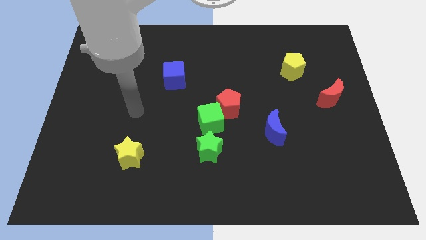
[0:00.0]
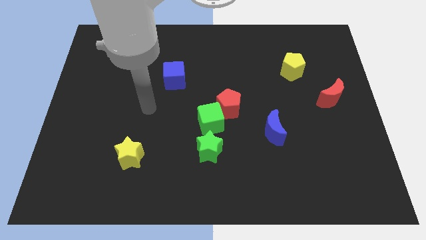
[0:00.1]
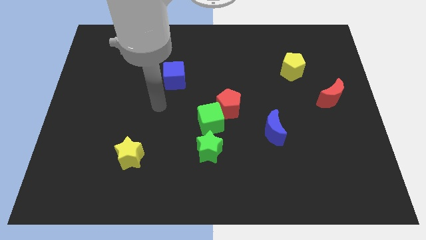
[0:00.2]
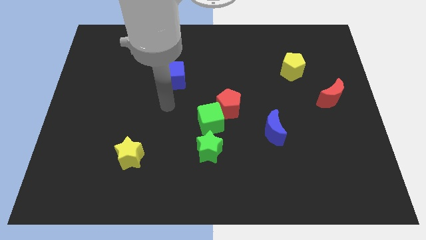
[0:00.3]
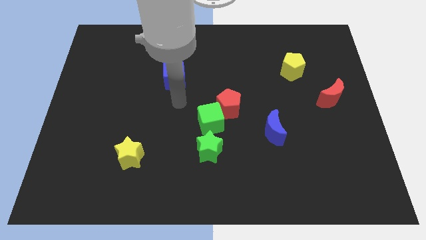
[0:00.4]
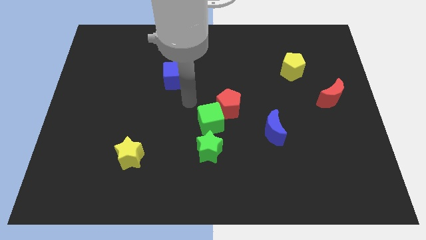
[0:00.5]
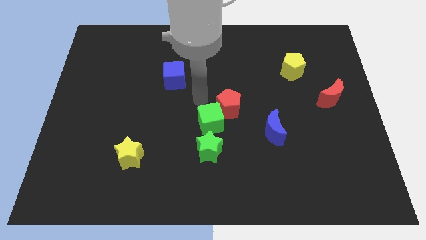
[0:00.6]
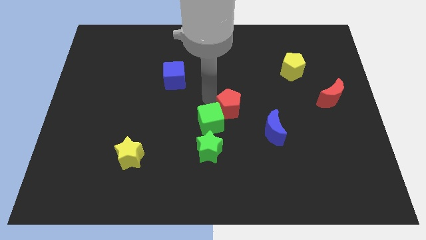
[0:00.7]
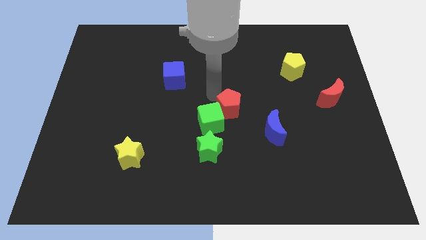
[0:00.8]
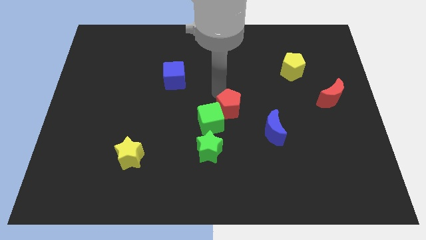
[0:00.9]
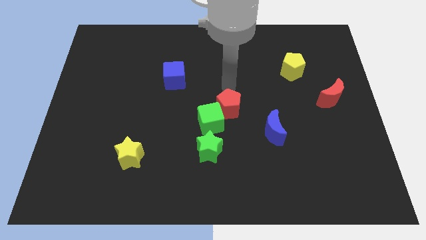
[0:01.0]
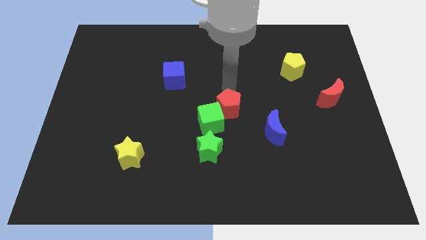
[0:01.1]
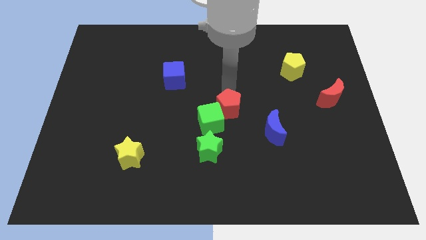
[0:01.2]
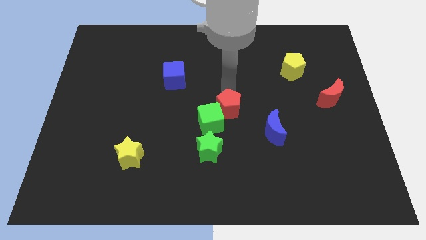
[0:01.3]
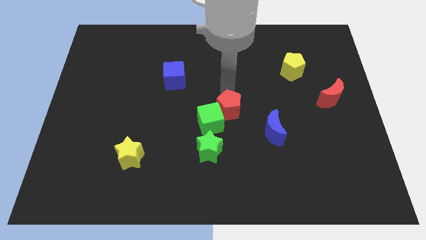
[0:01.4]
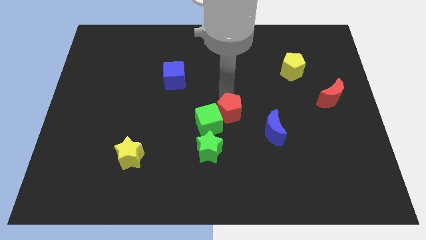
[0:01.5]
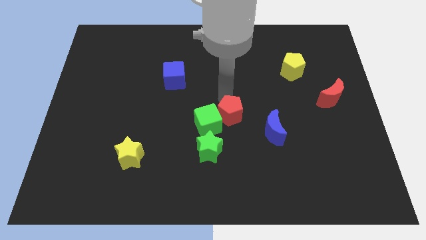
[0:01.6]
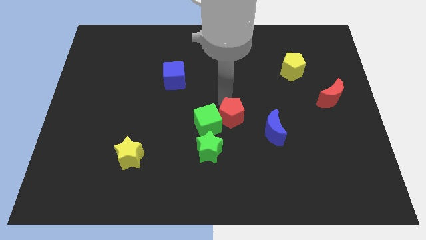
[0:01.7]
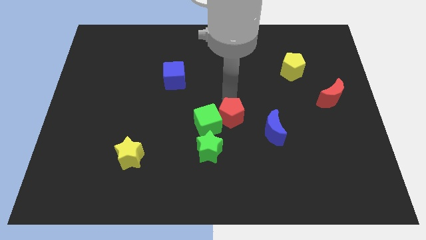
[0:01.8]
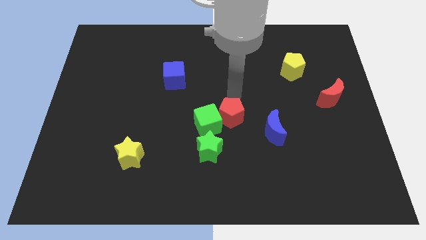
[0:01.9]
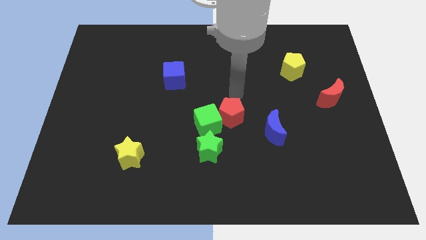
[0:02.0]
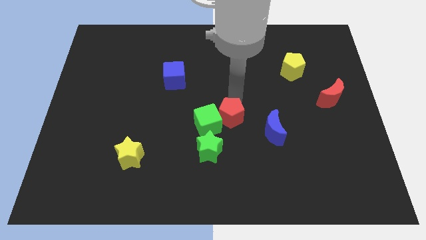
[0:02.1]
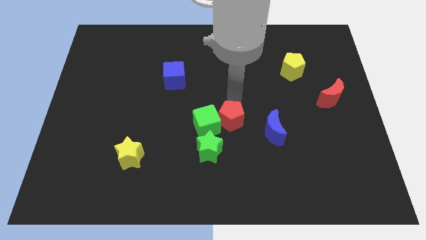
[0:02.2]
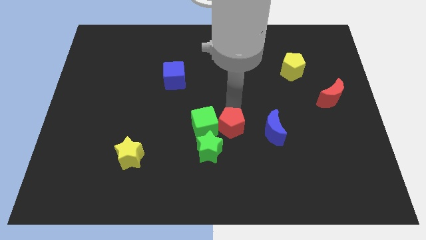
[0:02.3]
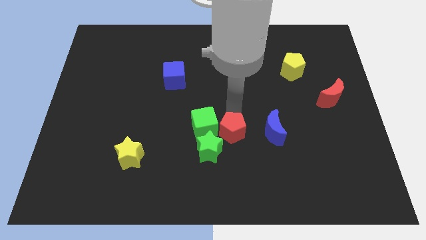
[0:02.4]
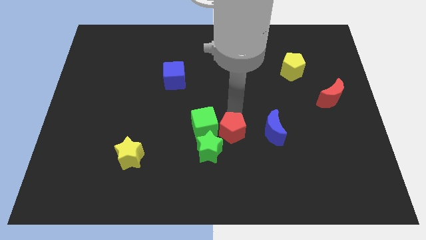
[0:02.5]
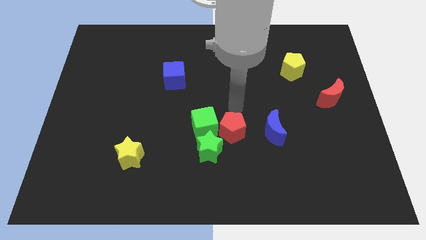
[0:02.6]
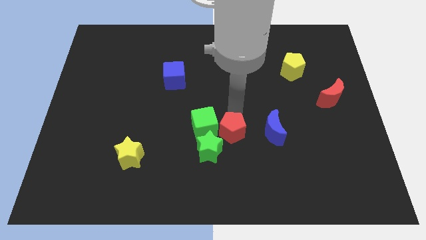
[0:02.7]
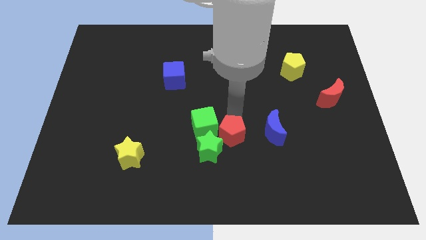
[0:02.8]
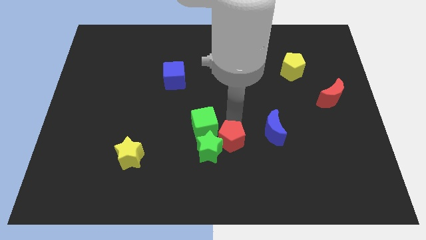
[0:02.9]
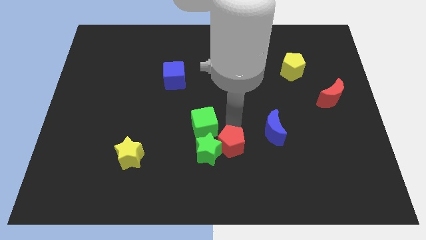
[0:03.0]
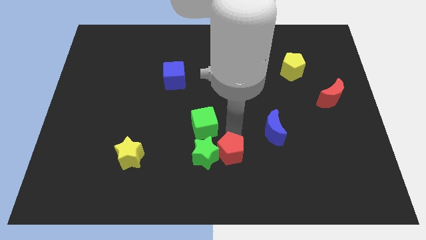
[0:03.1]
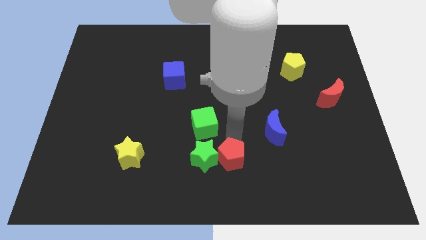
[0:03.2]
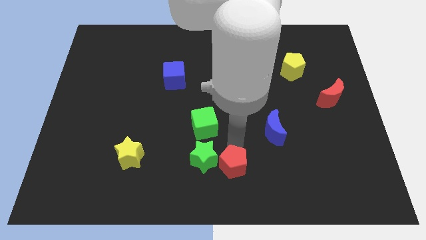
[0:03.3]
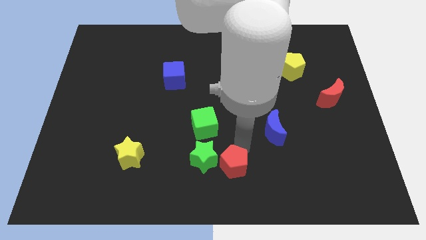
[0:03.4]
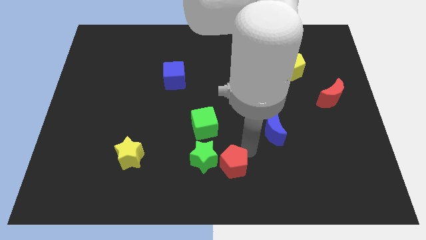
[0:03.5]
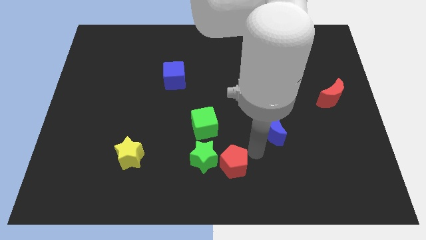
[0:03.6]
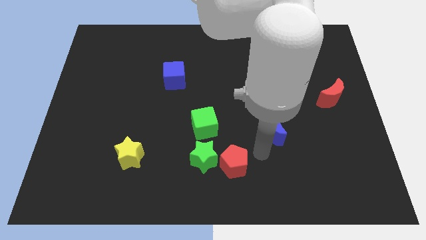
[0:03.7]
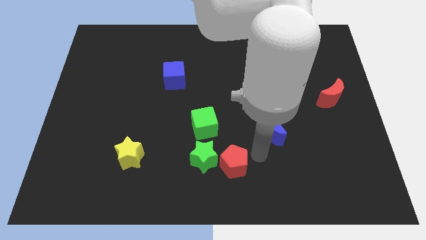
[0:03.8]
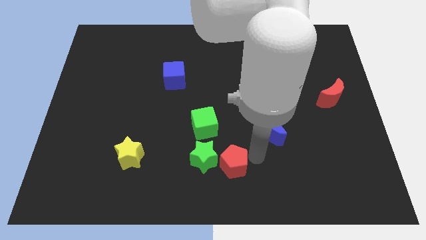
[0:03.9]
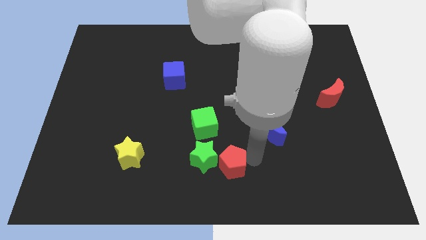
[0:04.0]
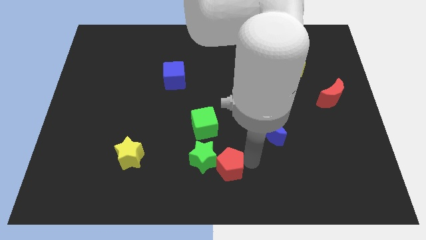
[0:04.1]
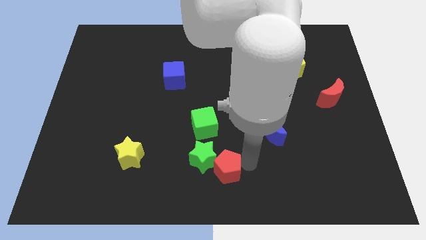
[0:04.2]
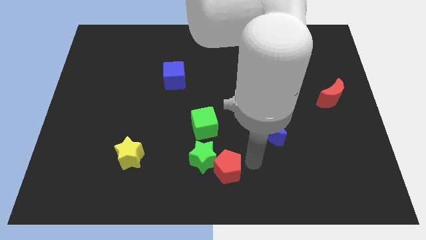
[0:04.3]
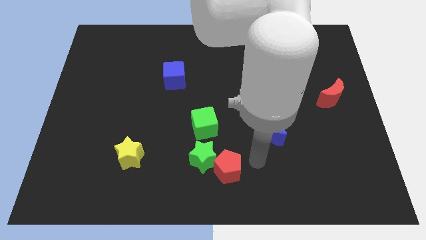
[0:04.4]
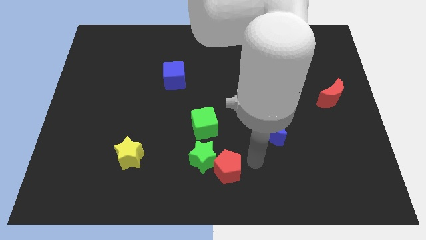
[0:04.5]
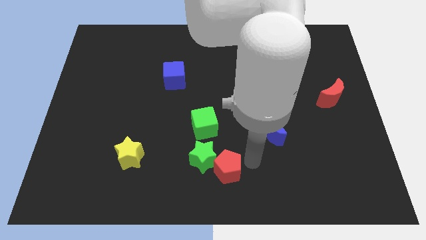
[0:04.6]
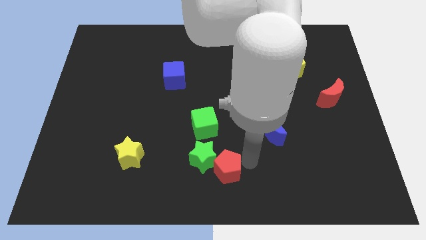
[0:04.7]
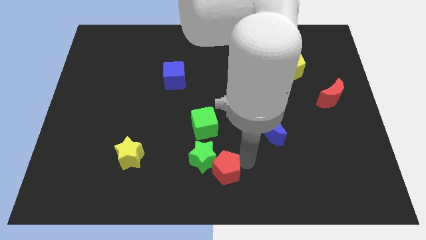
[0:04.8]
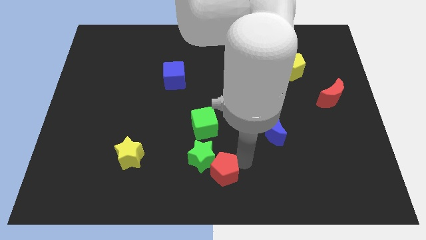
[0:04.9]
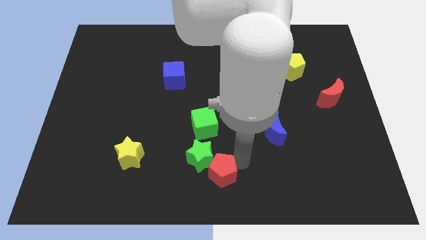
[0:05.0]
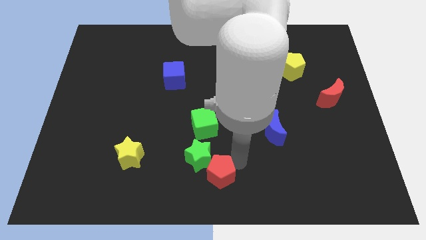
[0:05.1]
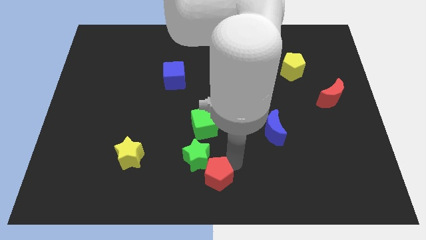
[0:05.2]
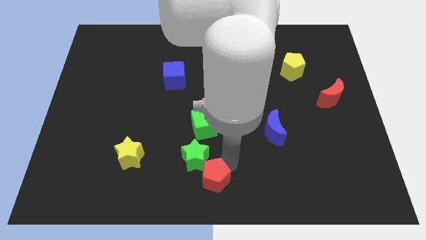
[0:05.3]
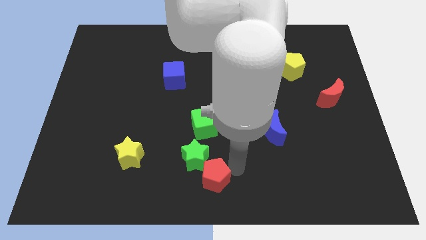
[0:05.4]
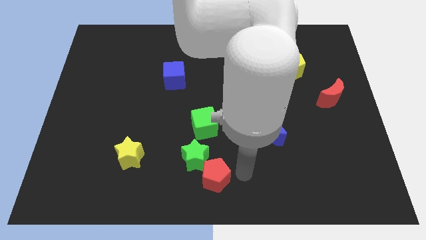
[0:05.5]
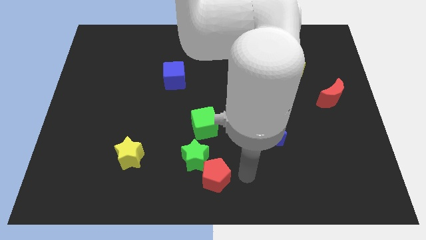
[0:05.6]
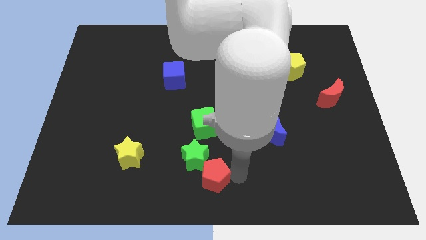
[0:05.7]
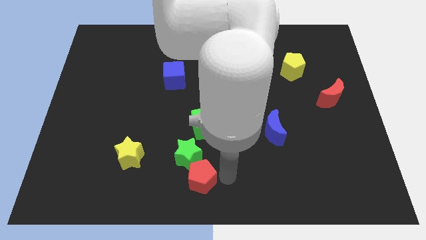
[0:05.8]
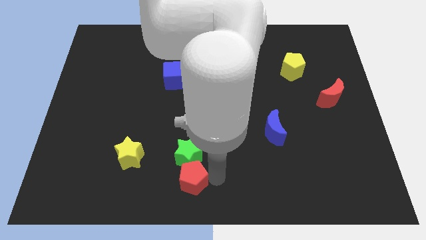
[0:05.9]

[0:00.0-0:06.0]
put the red pentagon to the bottom left side of the green star

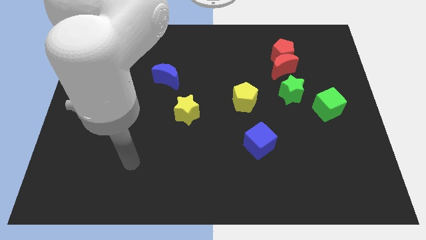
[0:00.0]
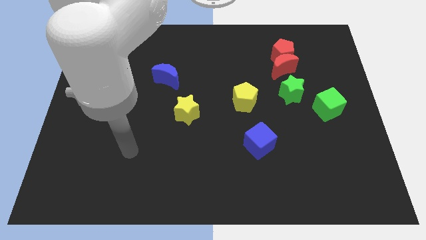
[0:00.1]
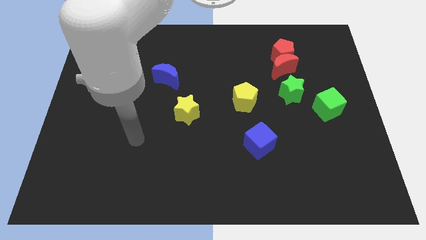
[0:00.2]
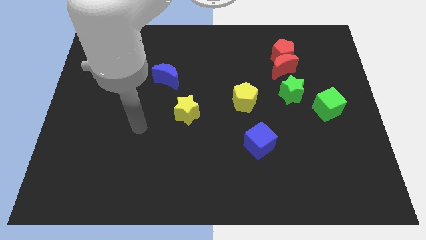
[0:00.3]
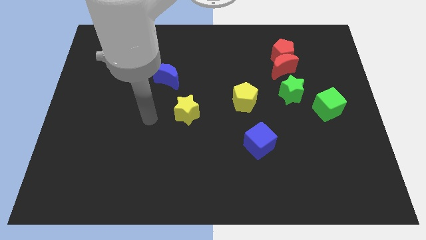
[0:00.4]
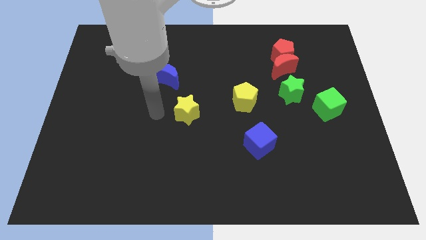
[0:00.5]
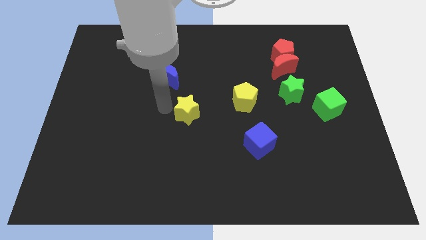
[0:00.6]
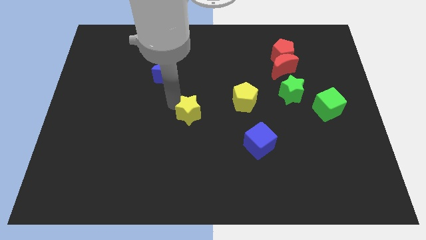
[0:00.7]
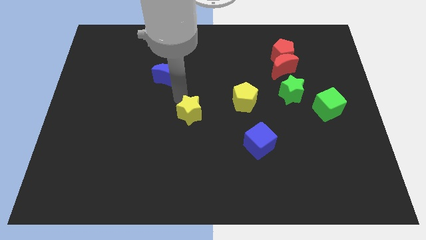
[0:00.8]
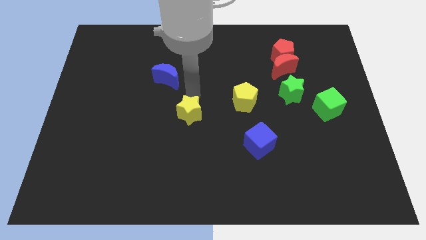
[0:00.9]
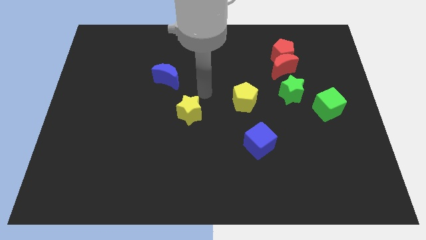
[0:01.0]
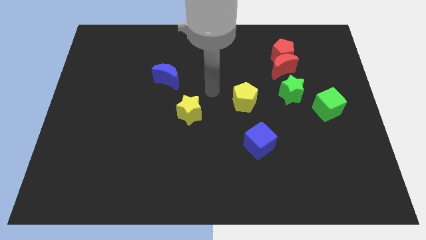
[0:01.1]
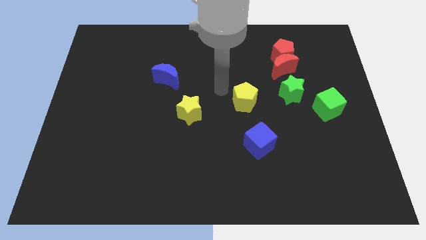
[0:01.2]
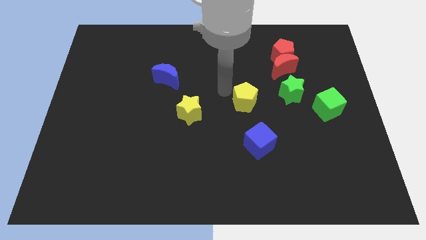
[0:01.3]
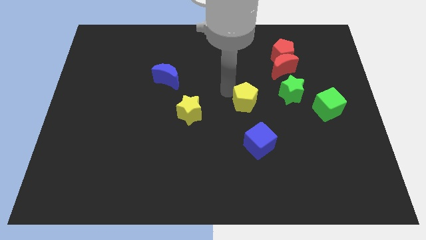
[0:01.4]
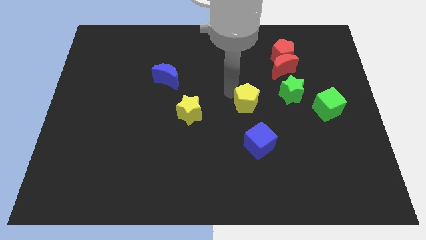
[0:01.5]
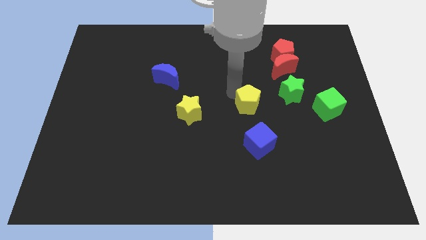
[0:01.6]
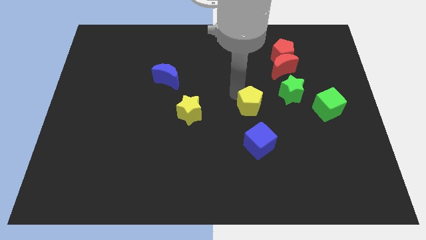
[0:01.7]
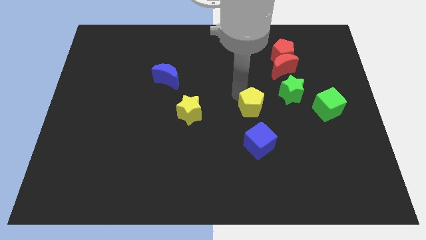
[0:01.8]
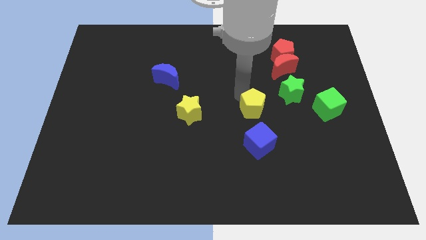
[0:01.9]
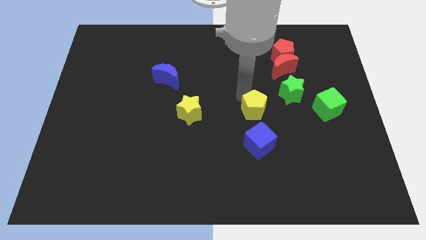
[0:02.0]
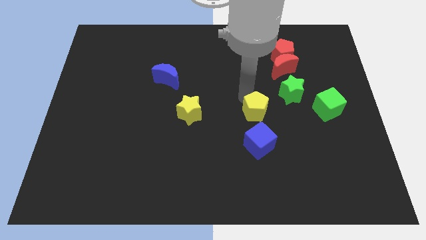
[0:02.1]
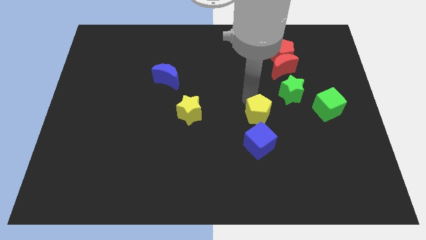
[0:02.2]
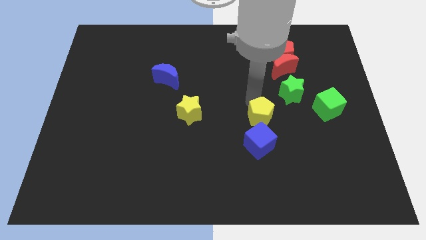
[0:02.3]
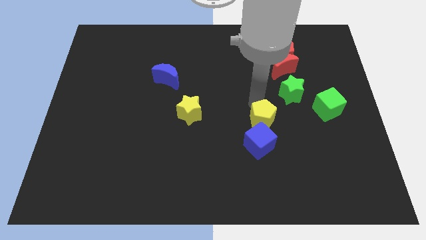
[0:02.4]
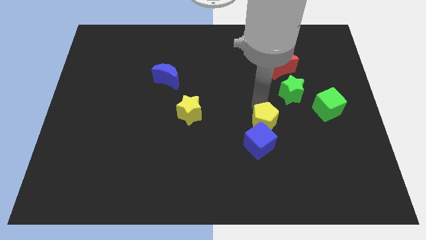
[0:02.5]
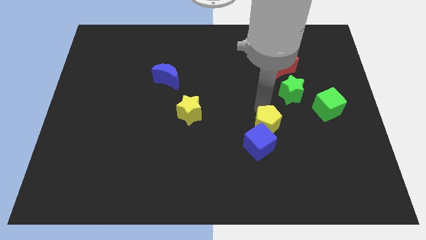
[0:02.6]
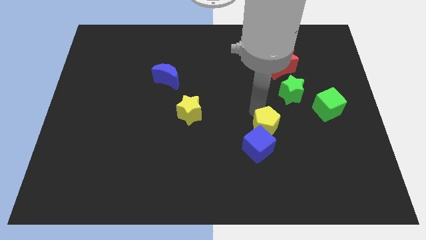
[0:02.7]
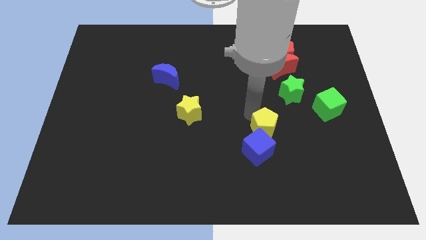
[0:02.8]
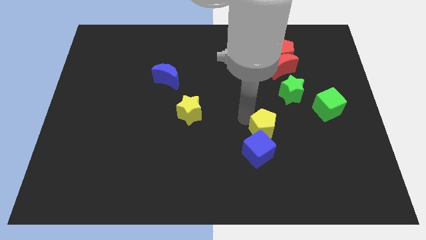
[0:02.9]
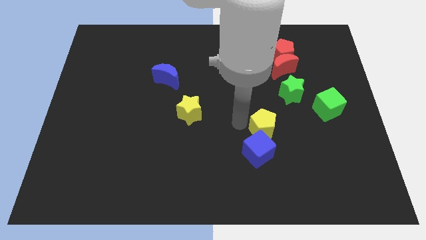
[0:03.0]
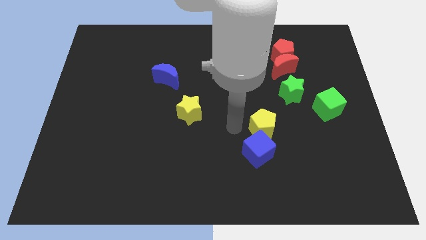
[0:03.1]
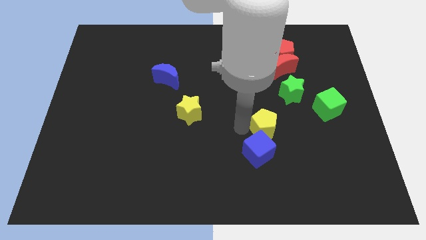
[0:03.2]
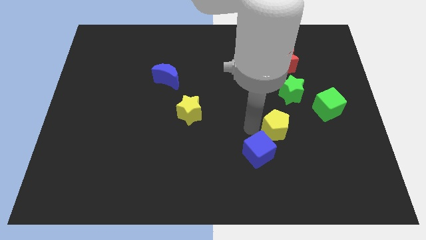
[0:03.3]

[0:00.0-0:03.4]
slide the yellow pentagon to the bottom side of the green star
